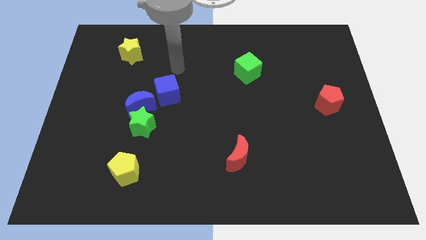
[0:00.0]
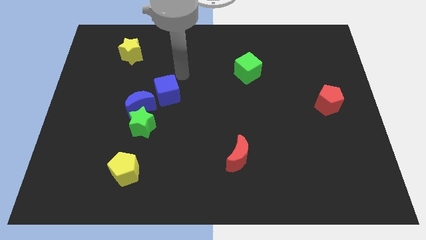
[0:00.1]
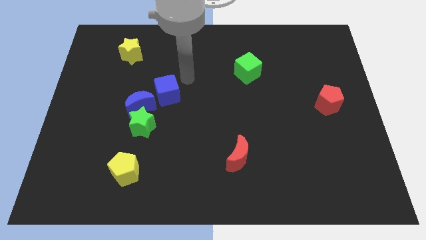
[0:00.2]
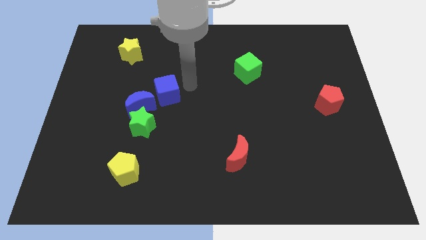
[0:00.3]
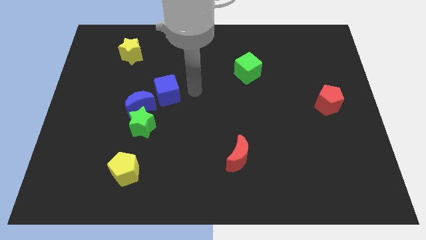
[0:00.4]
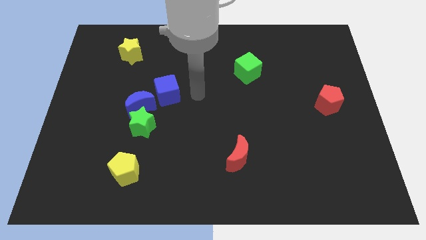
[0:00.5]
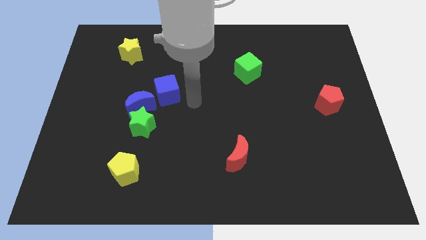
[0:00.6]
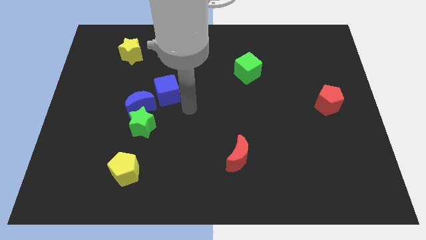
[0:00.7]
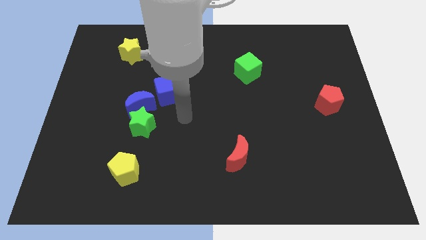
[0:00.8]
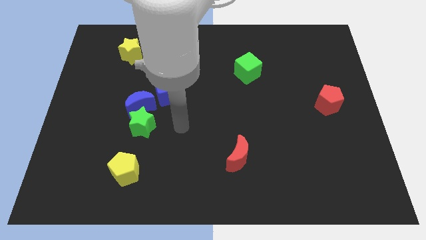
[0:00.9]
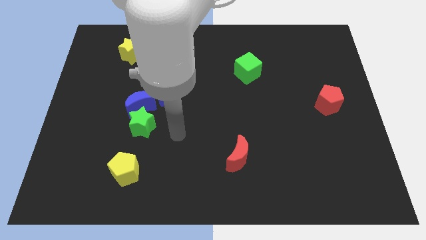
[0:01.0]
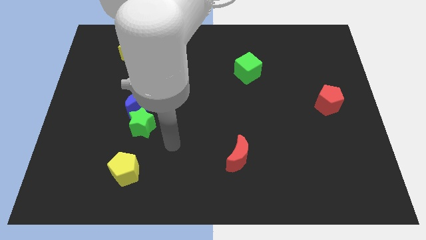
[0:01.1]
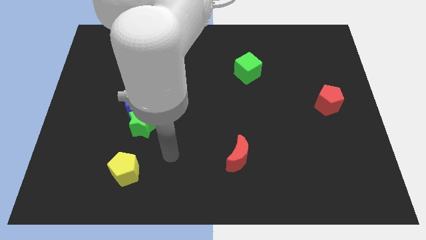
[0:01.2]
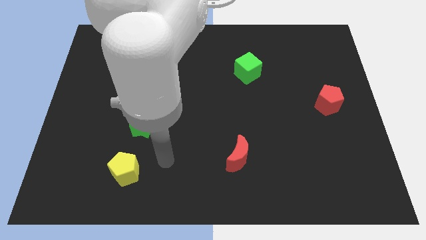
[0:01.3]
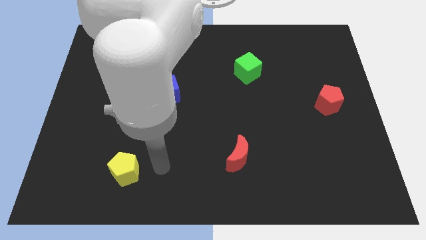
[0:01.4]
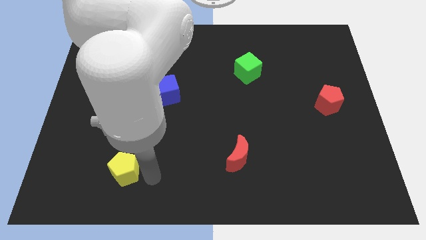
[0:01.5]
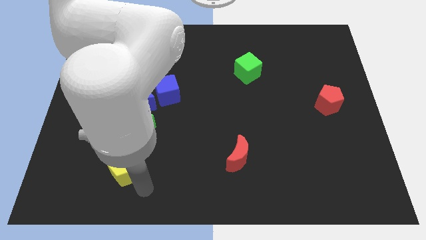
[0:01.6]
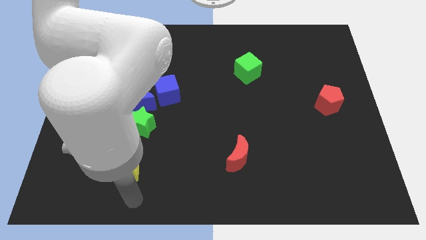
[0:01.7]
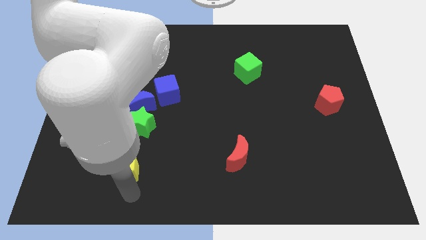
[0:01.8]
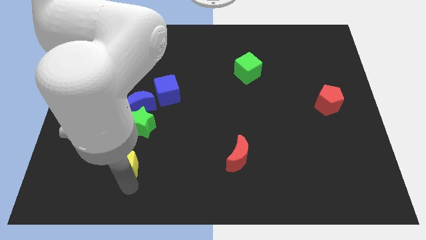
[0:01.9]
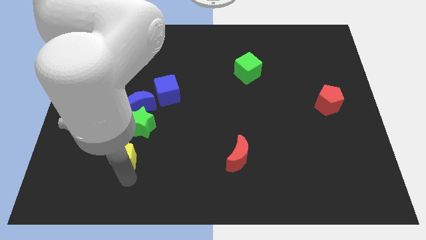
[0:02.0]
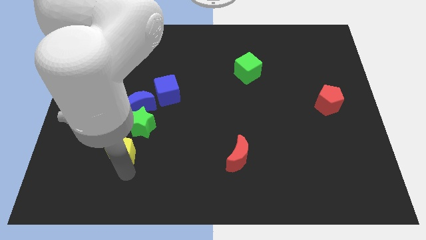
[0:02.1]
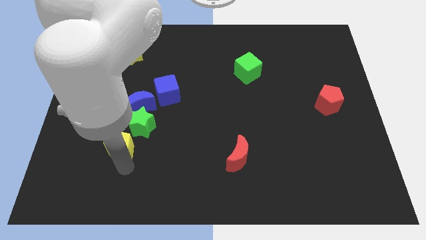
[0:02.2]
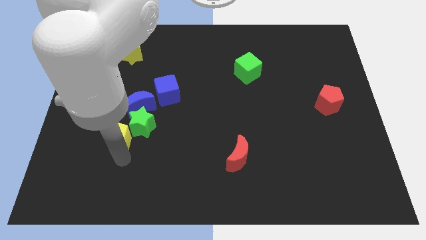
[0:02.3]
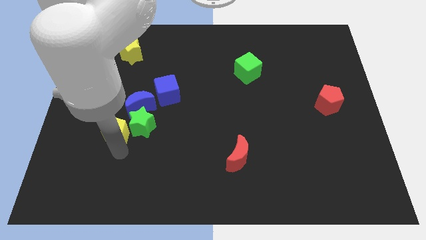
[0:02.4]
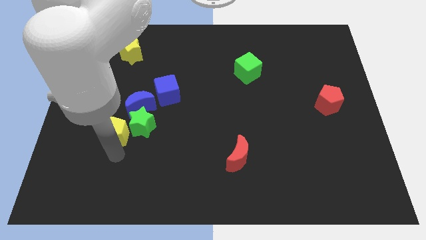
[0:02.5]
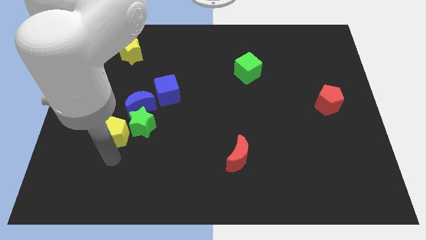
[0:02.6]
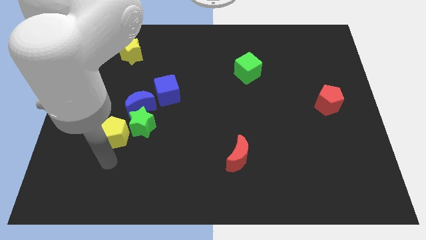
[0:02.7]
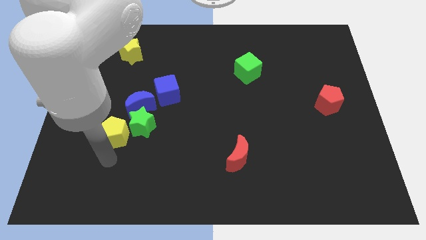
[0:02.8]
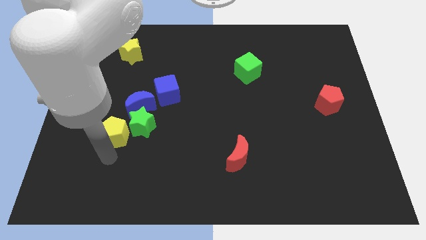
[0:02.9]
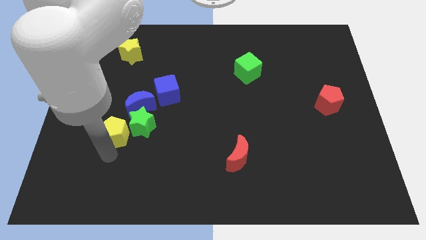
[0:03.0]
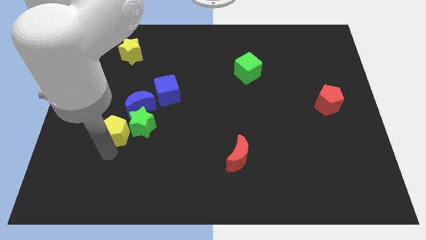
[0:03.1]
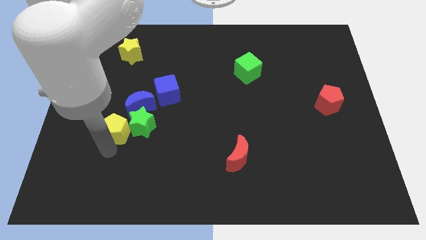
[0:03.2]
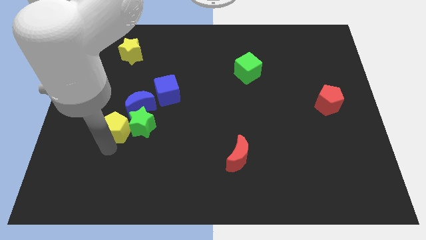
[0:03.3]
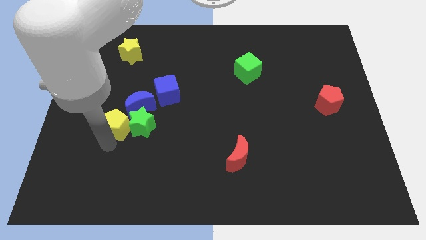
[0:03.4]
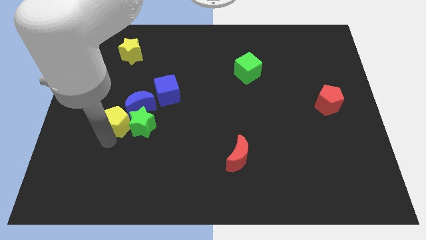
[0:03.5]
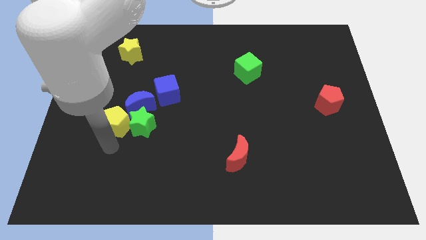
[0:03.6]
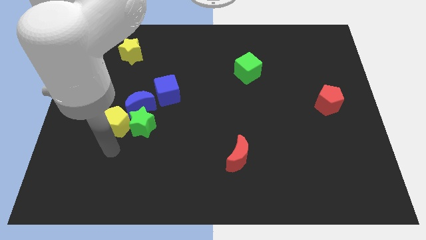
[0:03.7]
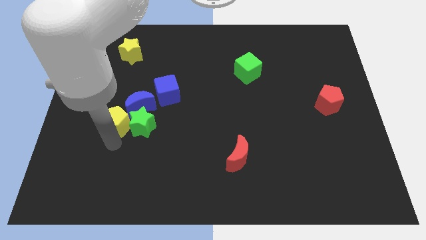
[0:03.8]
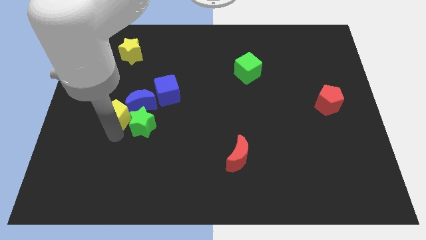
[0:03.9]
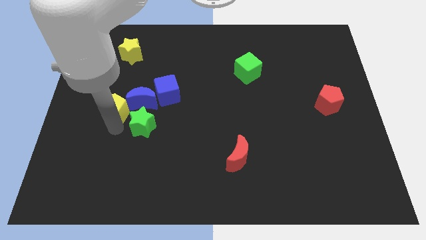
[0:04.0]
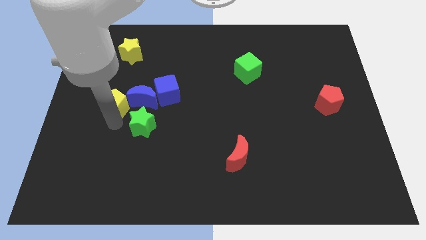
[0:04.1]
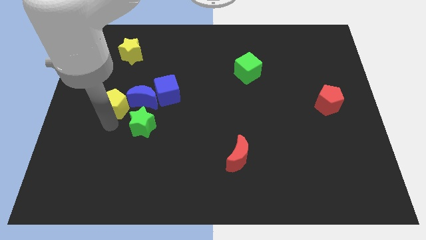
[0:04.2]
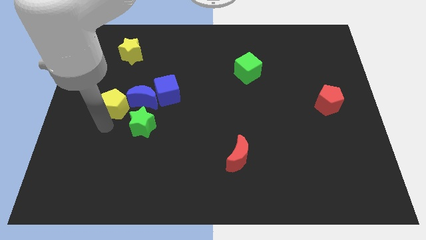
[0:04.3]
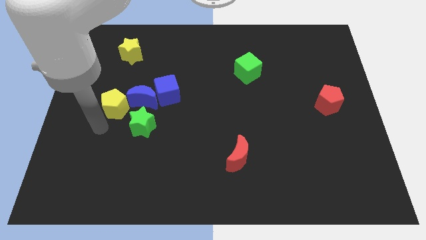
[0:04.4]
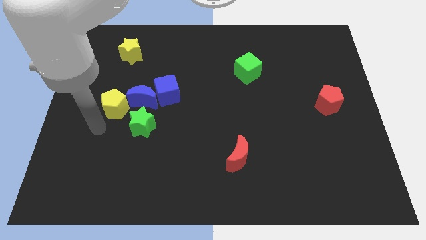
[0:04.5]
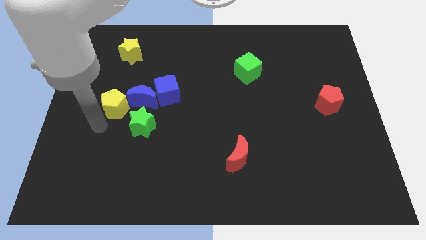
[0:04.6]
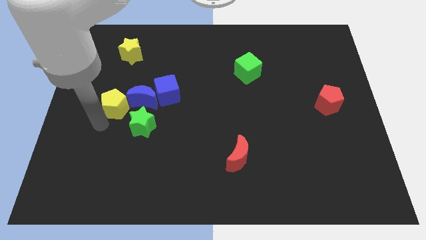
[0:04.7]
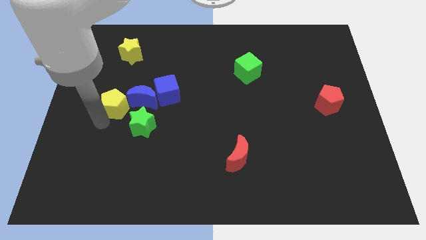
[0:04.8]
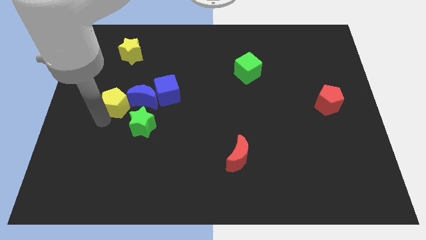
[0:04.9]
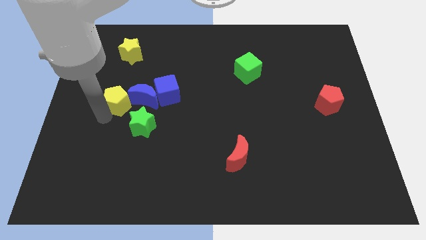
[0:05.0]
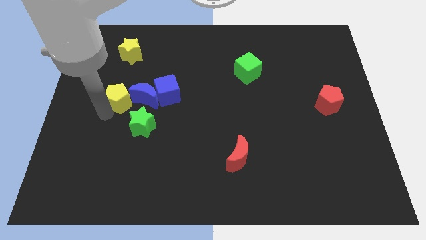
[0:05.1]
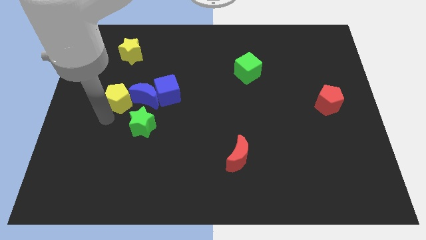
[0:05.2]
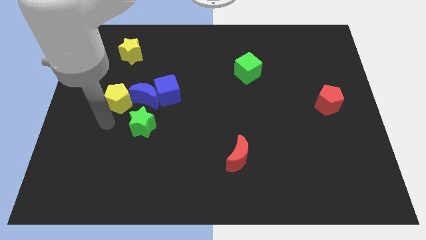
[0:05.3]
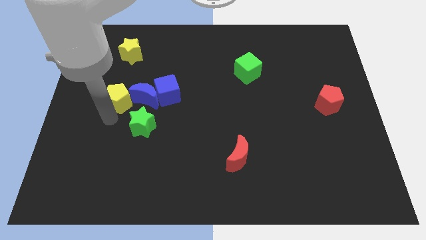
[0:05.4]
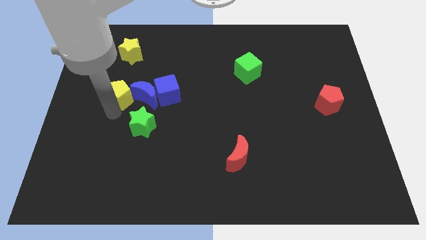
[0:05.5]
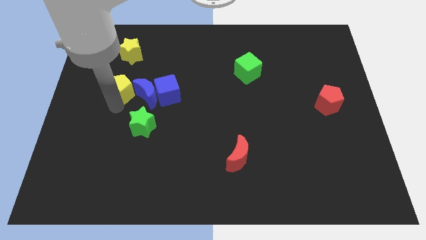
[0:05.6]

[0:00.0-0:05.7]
move the yellow pentagon upwards

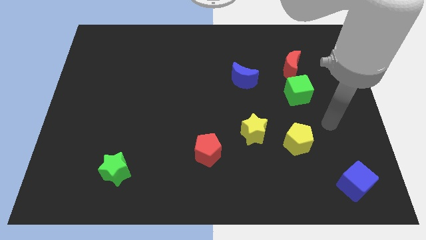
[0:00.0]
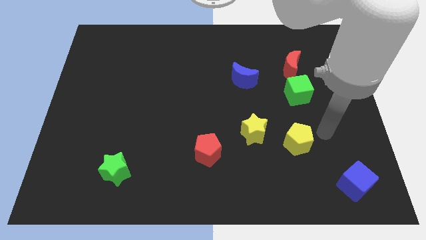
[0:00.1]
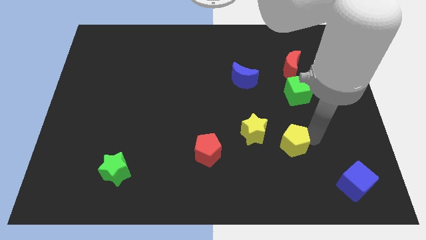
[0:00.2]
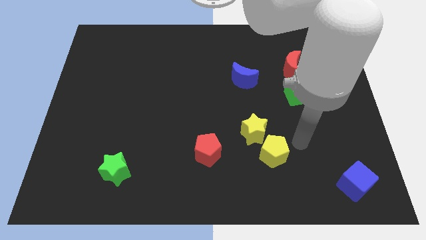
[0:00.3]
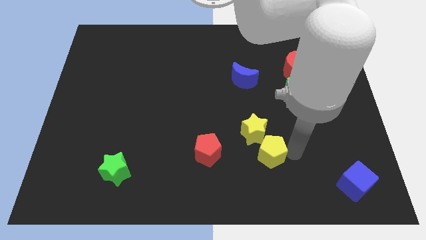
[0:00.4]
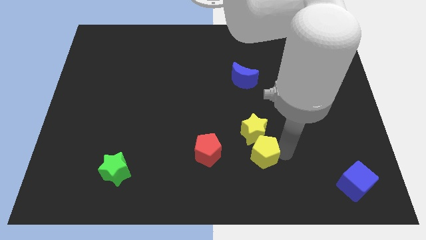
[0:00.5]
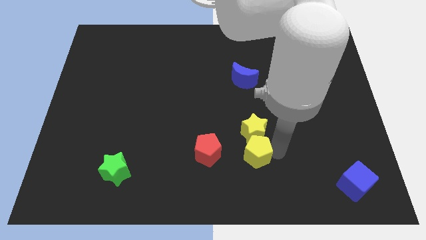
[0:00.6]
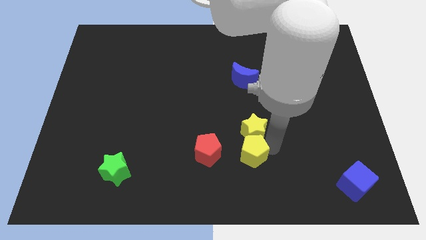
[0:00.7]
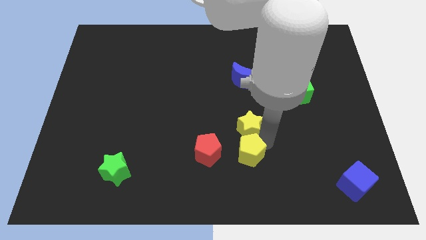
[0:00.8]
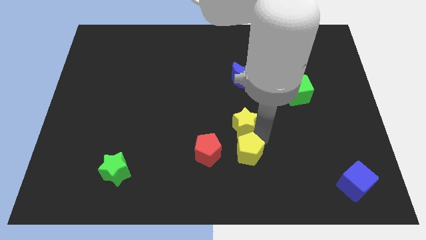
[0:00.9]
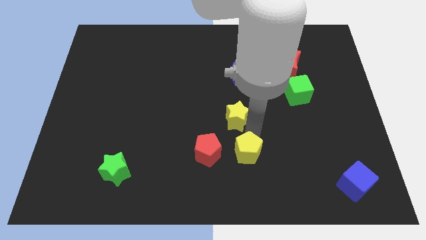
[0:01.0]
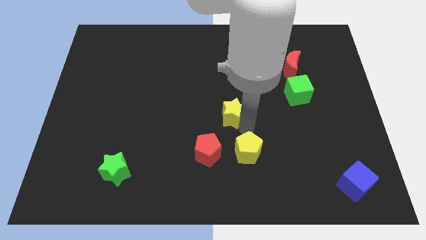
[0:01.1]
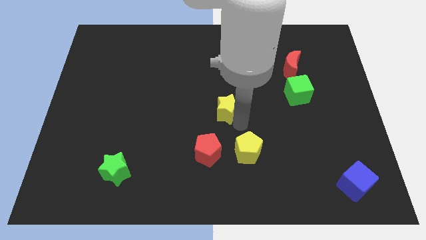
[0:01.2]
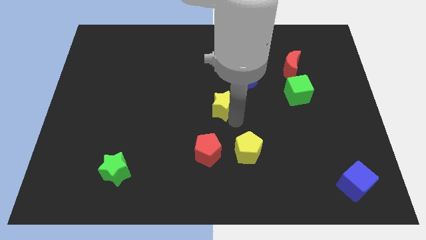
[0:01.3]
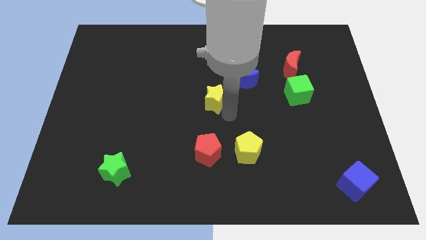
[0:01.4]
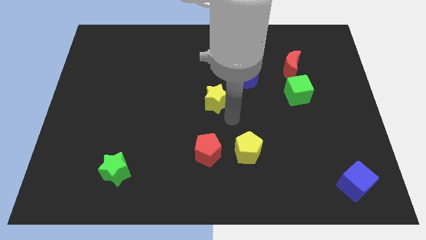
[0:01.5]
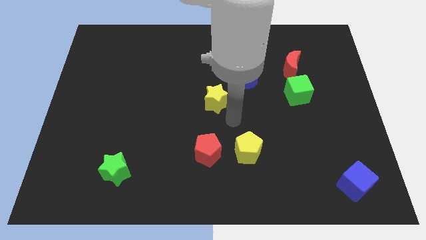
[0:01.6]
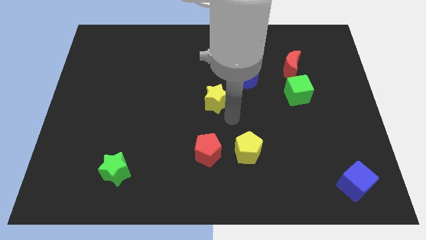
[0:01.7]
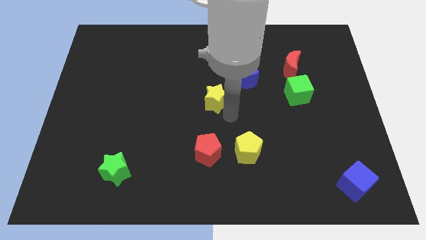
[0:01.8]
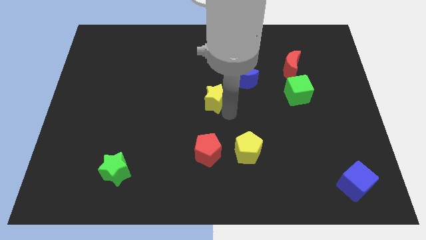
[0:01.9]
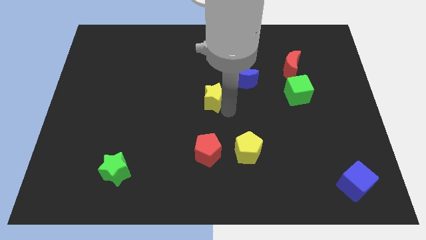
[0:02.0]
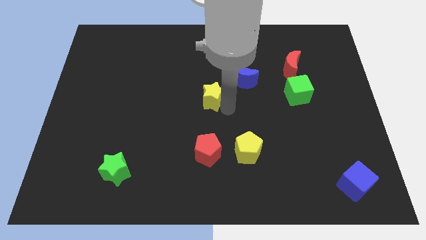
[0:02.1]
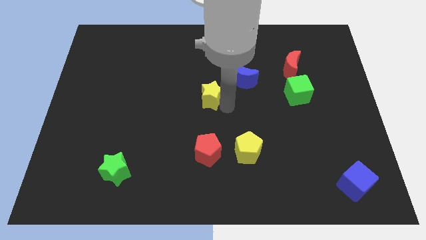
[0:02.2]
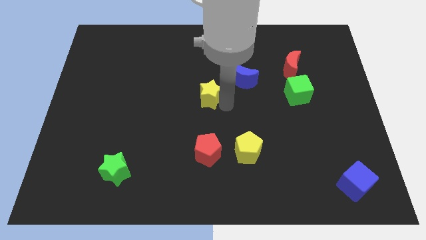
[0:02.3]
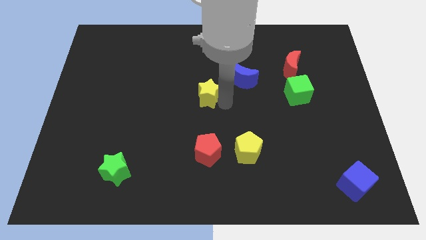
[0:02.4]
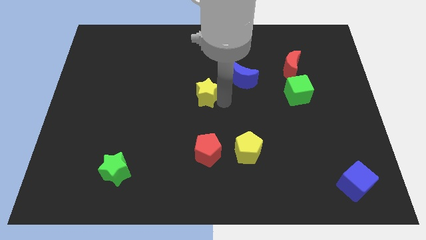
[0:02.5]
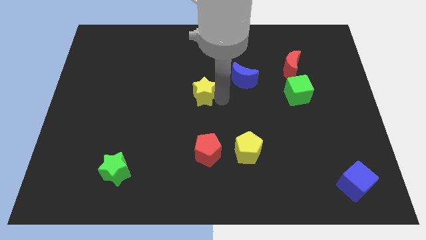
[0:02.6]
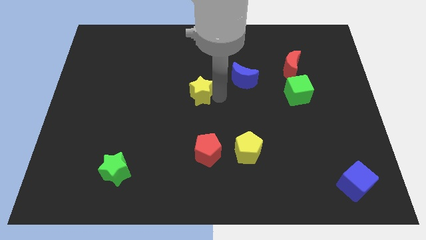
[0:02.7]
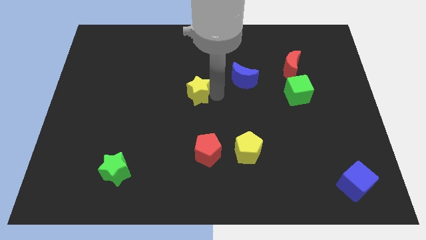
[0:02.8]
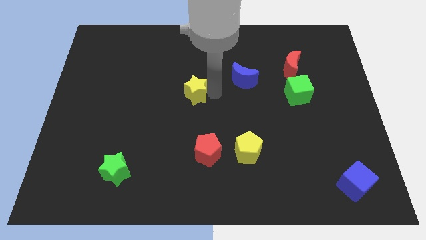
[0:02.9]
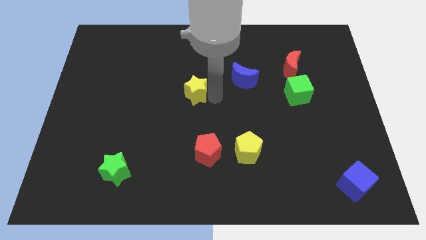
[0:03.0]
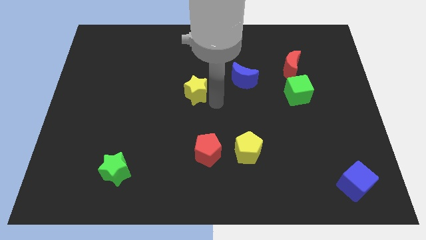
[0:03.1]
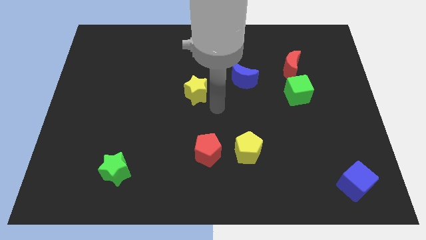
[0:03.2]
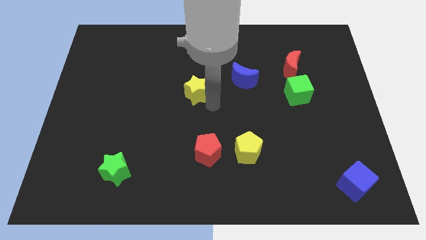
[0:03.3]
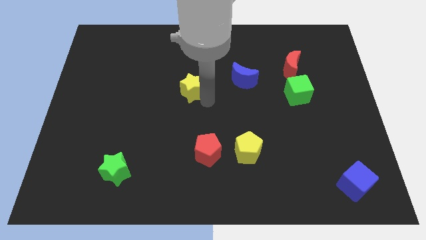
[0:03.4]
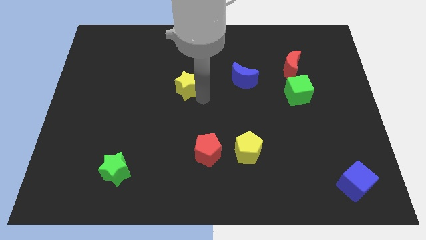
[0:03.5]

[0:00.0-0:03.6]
push the yellow star diagonally up and to the left
